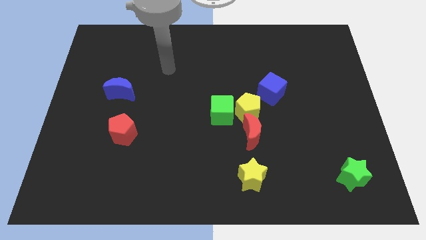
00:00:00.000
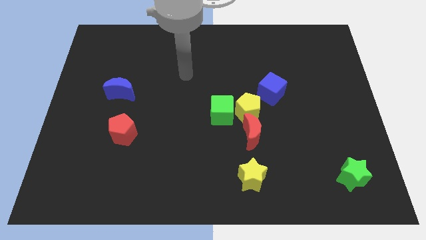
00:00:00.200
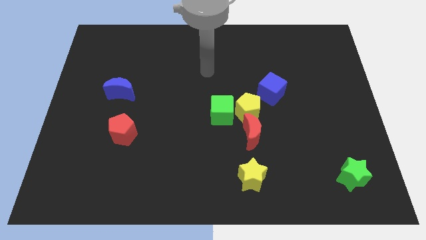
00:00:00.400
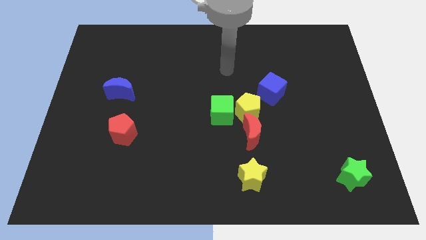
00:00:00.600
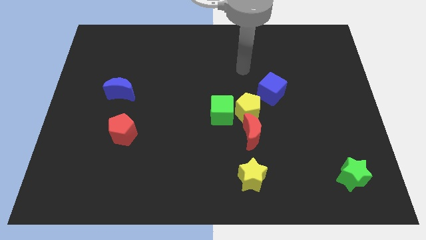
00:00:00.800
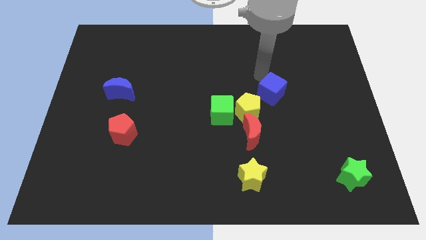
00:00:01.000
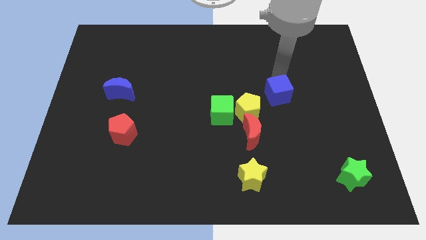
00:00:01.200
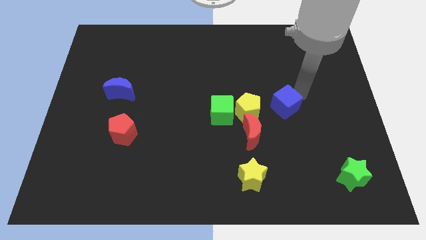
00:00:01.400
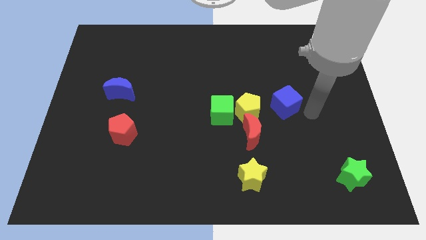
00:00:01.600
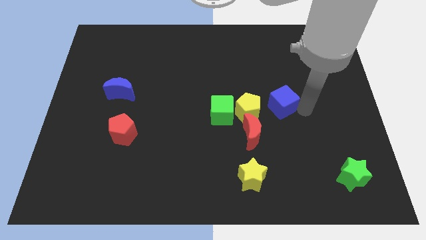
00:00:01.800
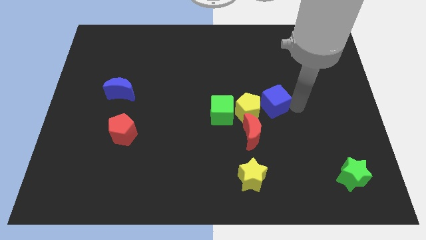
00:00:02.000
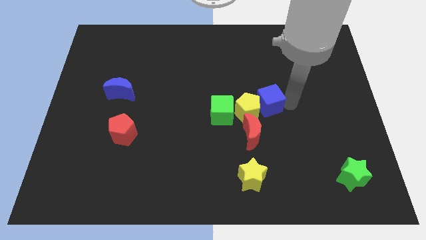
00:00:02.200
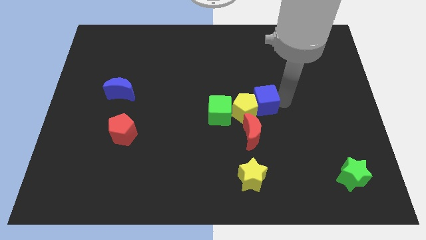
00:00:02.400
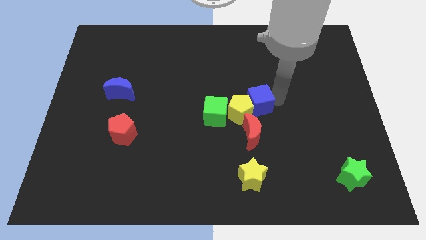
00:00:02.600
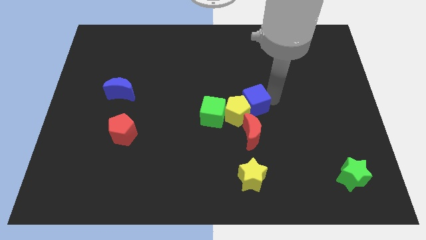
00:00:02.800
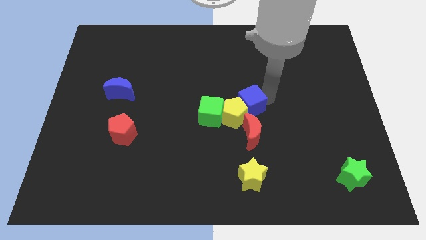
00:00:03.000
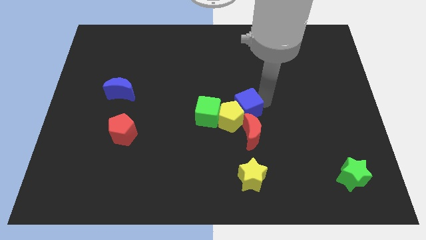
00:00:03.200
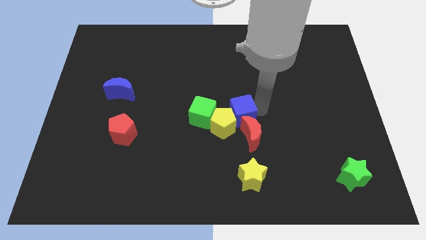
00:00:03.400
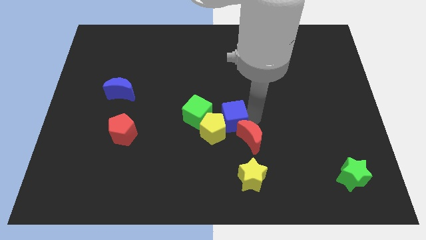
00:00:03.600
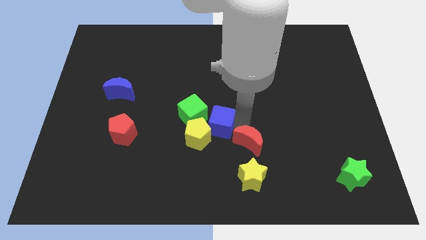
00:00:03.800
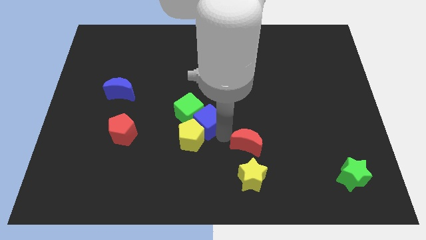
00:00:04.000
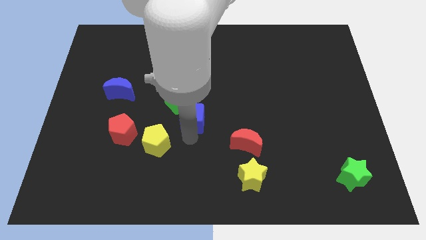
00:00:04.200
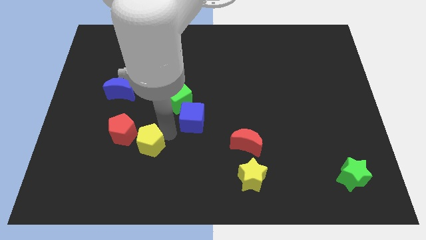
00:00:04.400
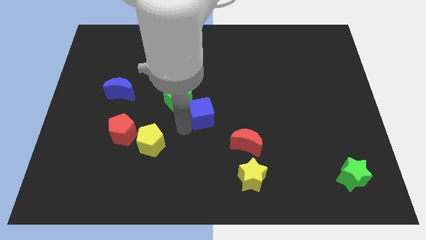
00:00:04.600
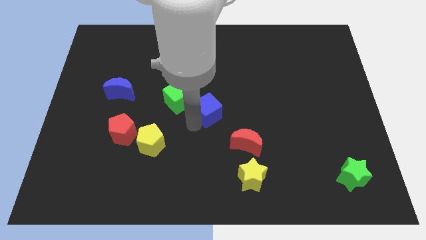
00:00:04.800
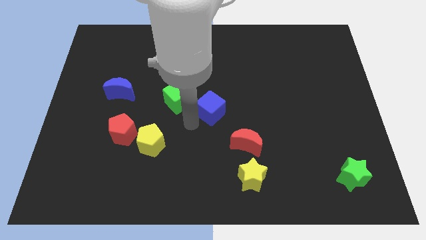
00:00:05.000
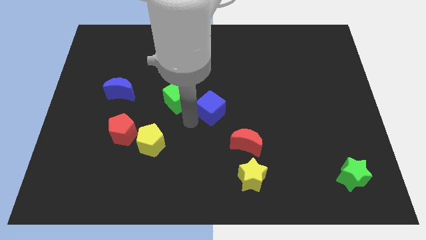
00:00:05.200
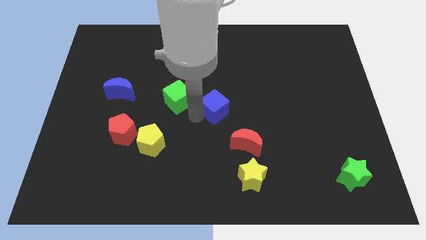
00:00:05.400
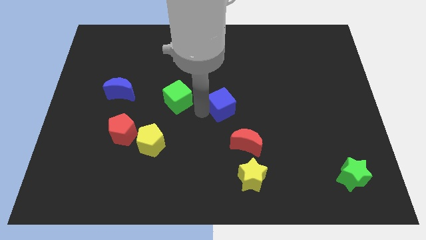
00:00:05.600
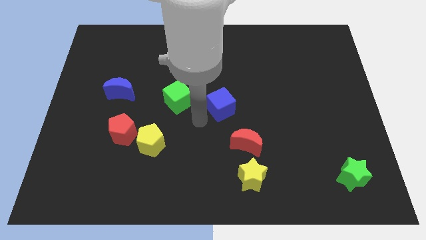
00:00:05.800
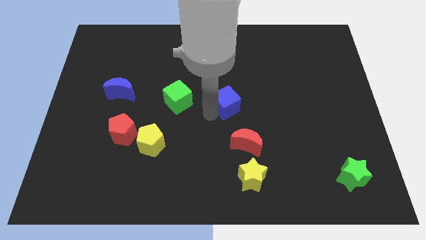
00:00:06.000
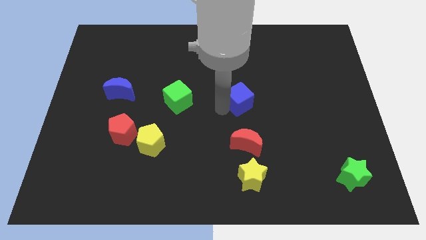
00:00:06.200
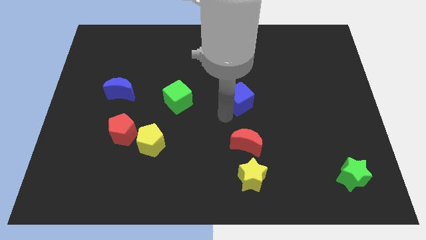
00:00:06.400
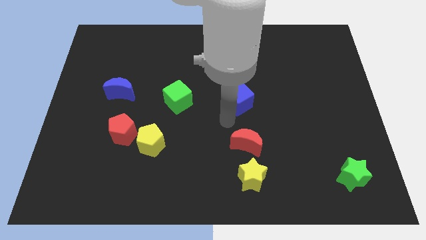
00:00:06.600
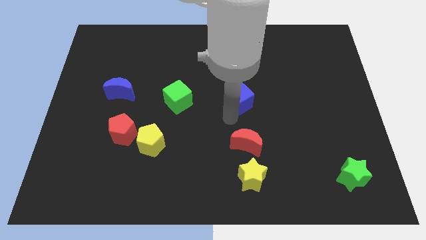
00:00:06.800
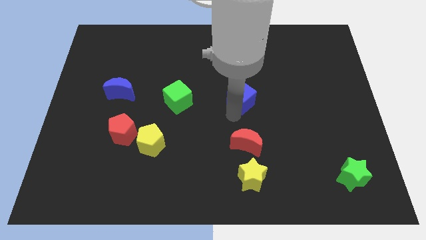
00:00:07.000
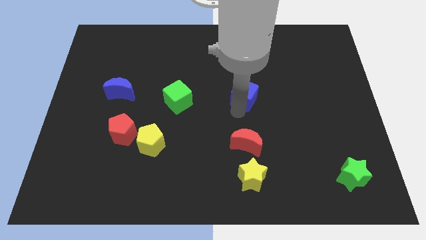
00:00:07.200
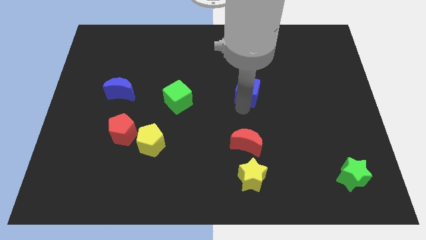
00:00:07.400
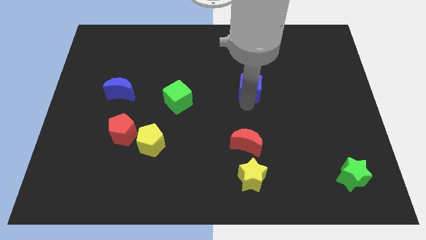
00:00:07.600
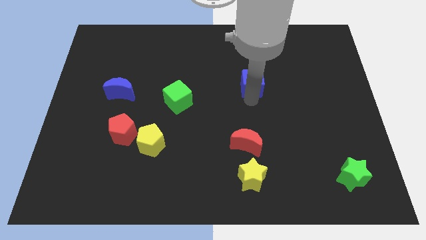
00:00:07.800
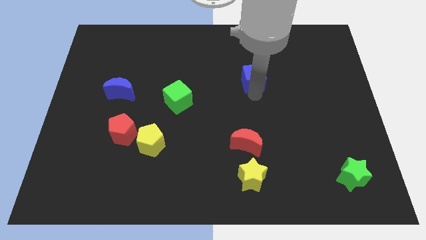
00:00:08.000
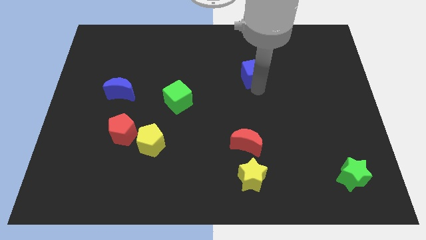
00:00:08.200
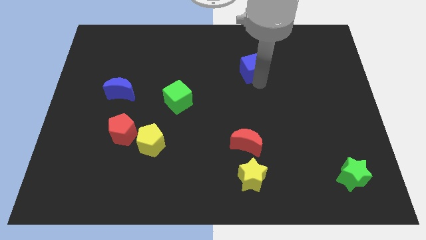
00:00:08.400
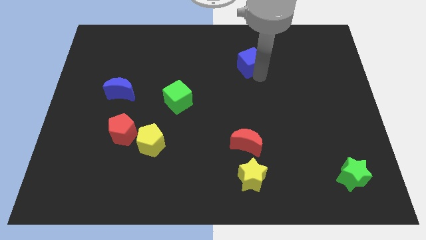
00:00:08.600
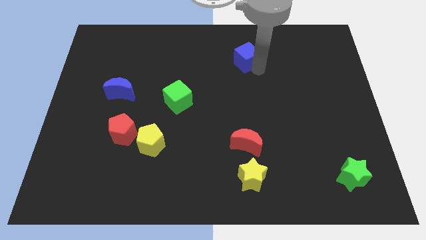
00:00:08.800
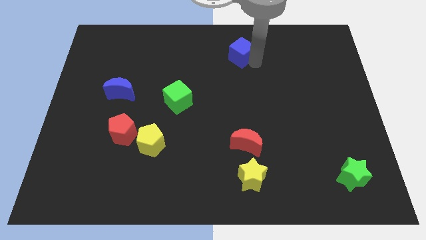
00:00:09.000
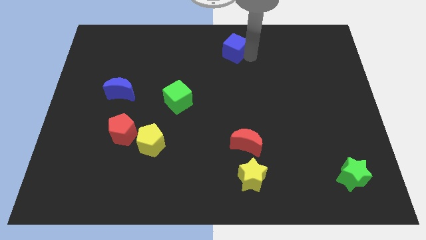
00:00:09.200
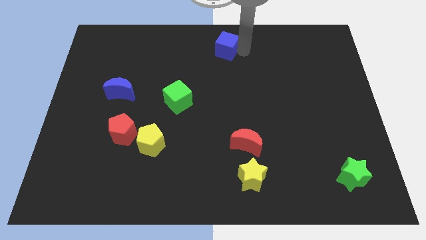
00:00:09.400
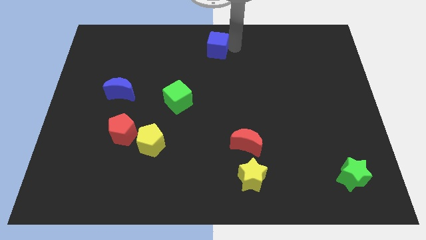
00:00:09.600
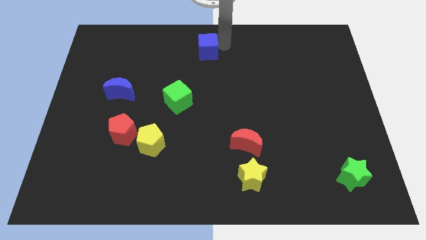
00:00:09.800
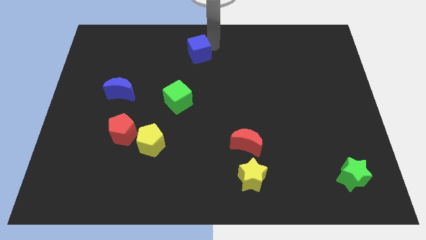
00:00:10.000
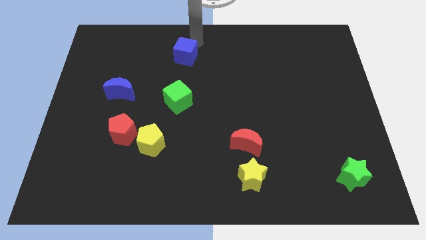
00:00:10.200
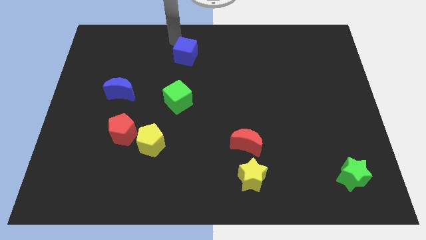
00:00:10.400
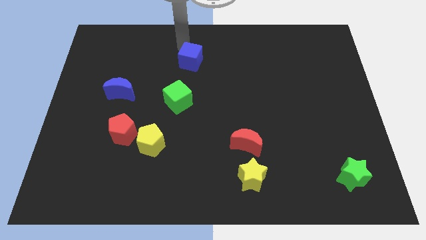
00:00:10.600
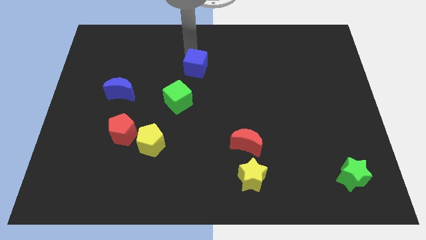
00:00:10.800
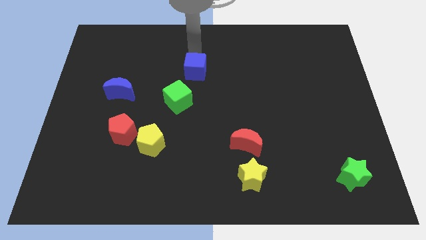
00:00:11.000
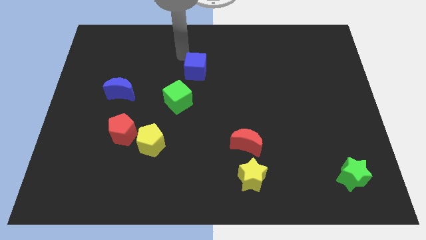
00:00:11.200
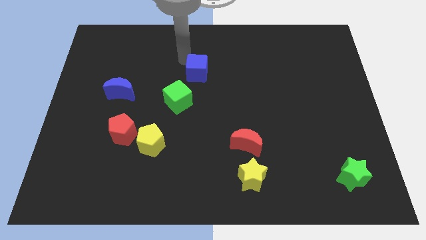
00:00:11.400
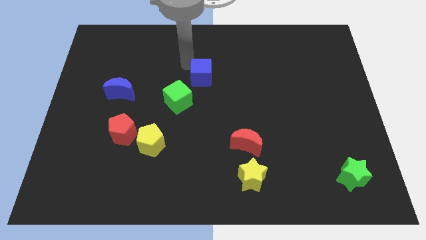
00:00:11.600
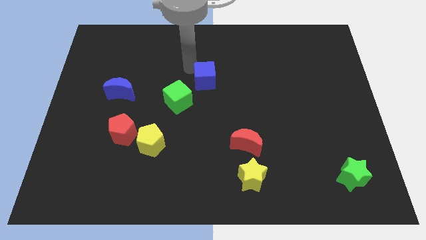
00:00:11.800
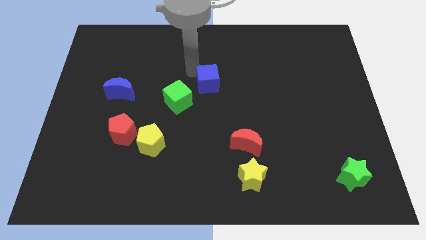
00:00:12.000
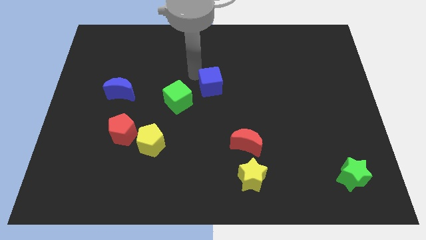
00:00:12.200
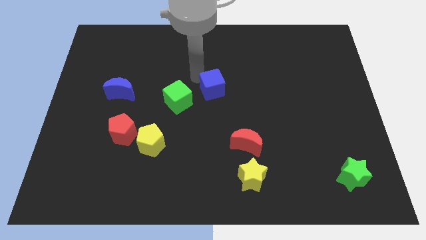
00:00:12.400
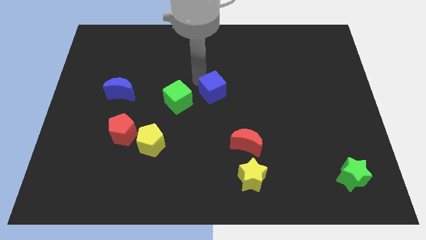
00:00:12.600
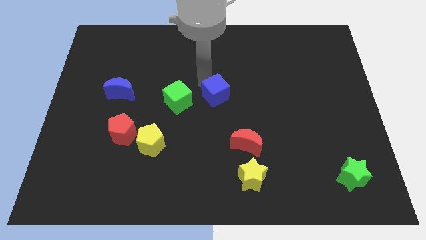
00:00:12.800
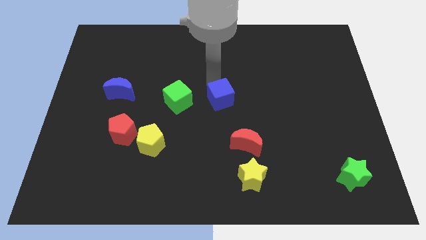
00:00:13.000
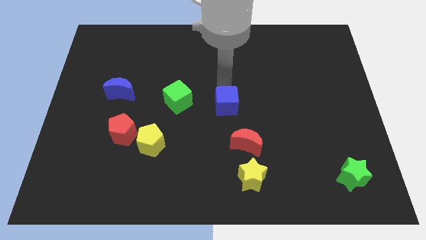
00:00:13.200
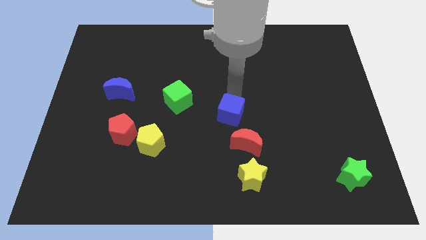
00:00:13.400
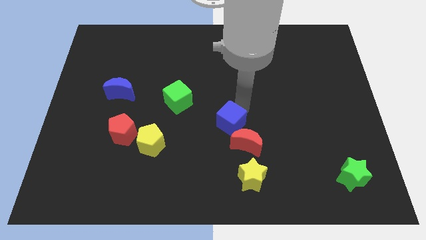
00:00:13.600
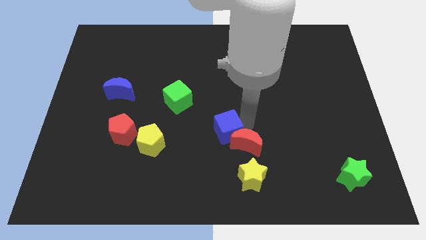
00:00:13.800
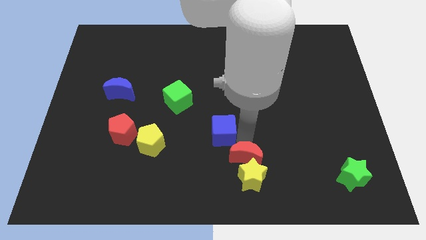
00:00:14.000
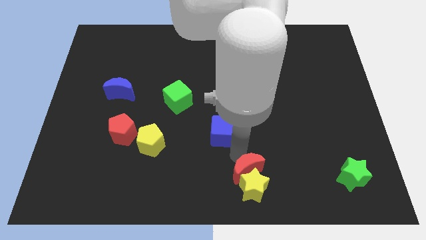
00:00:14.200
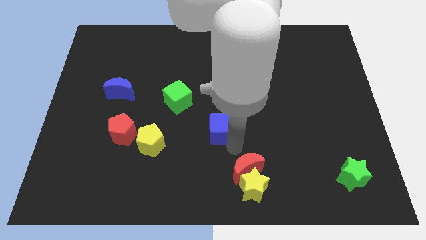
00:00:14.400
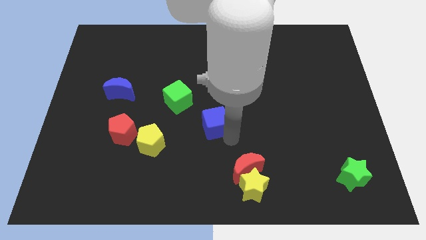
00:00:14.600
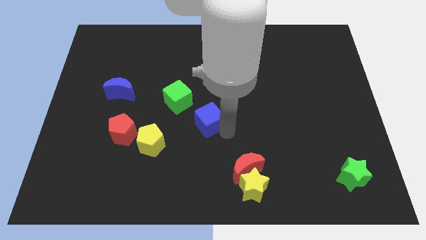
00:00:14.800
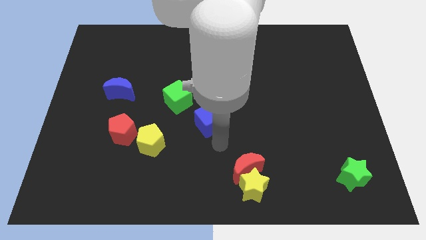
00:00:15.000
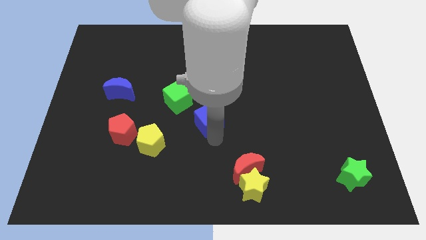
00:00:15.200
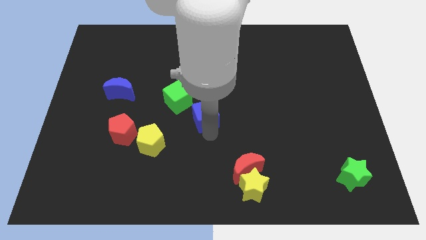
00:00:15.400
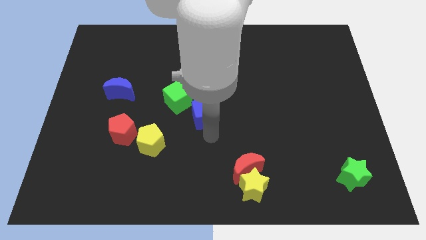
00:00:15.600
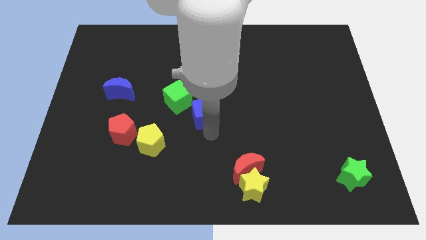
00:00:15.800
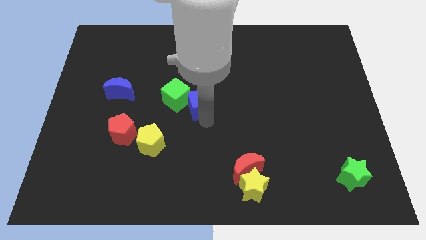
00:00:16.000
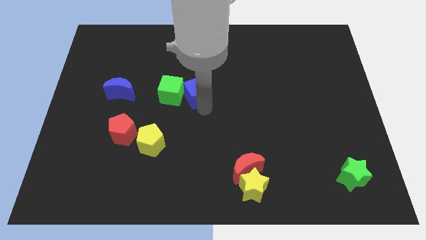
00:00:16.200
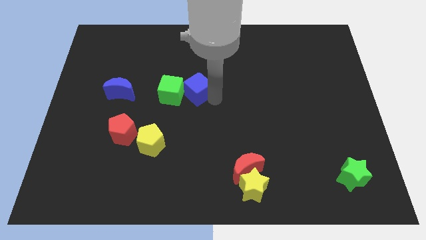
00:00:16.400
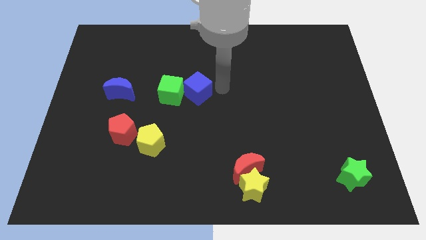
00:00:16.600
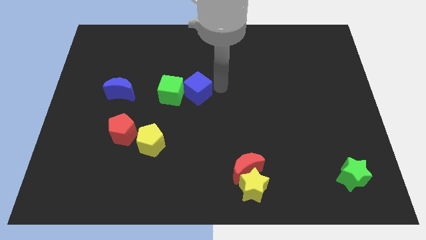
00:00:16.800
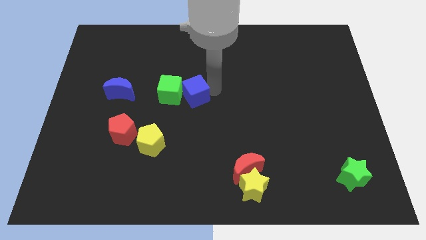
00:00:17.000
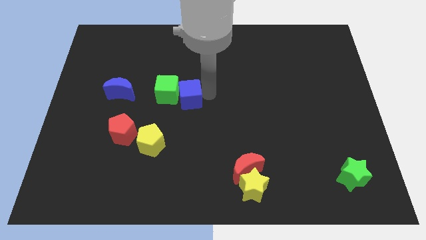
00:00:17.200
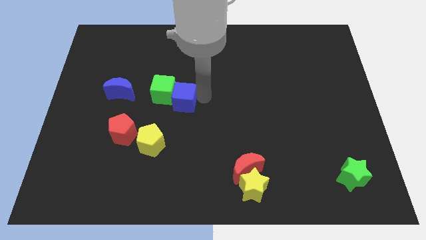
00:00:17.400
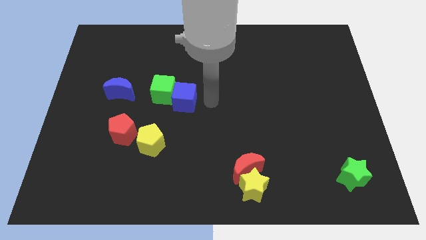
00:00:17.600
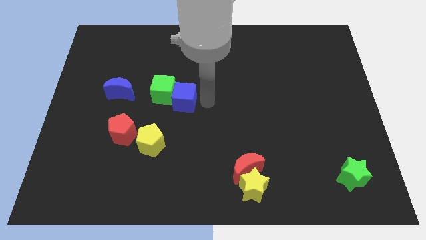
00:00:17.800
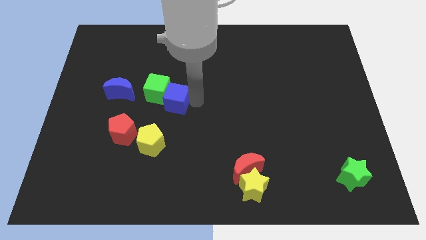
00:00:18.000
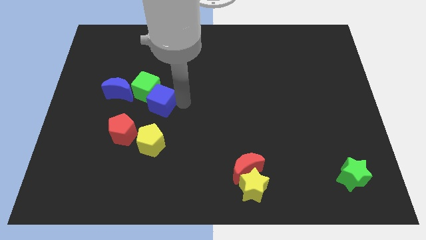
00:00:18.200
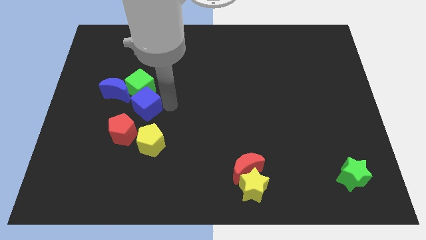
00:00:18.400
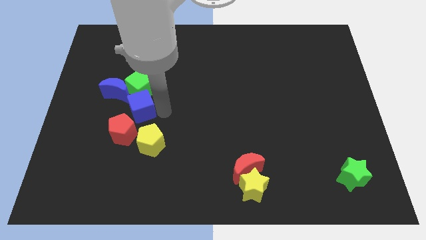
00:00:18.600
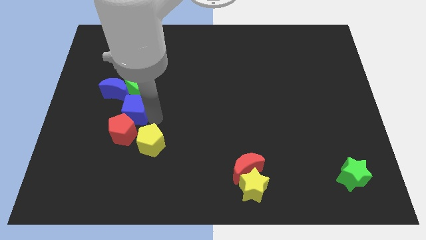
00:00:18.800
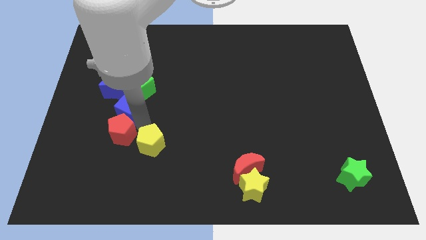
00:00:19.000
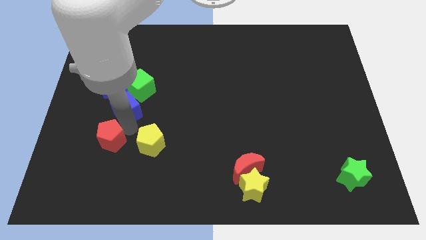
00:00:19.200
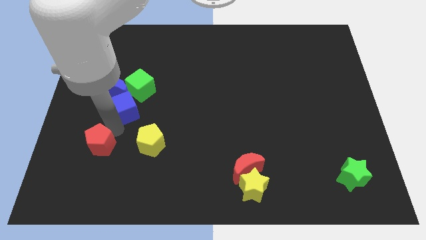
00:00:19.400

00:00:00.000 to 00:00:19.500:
slide the blue cube next to the blue moon
